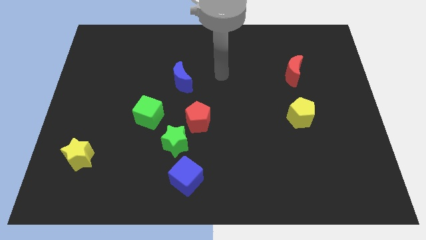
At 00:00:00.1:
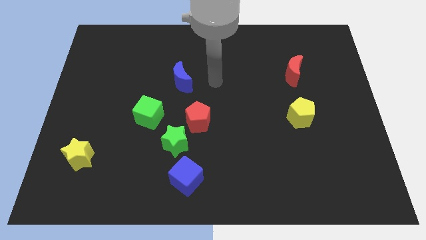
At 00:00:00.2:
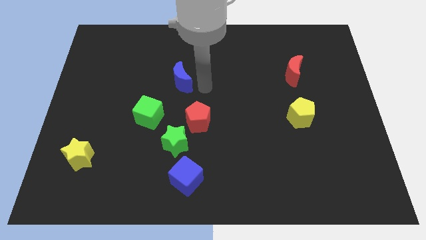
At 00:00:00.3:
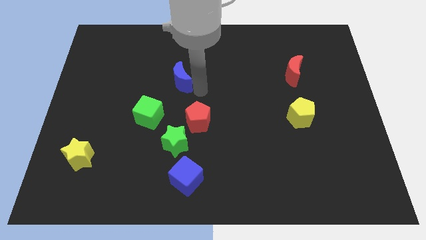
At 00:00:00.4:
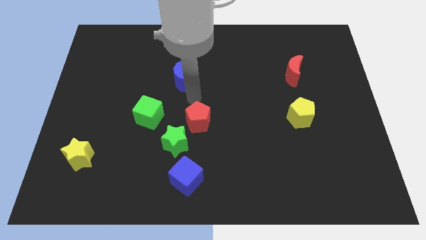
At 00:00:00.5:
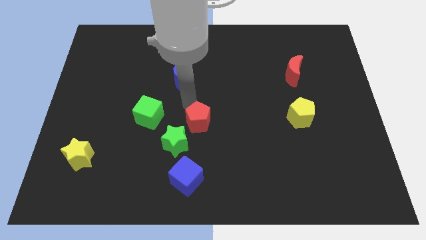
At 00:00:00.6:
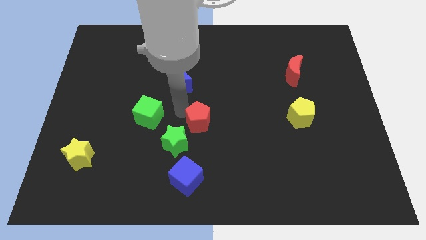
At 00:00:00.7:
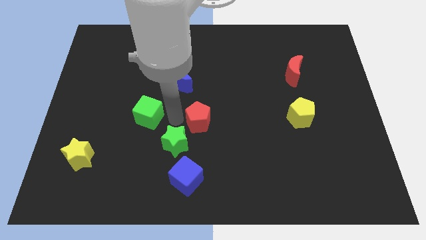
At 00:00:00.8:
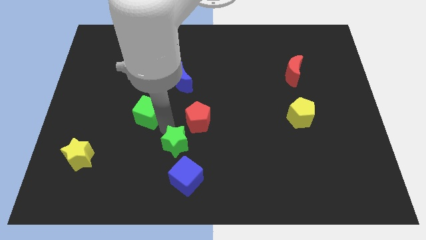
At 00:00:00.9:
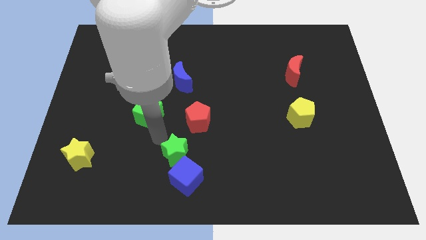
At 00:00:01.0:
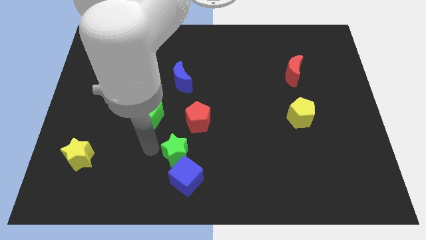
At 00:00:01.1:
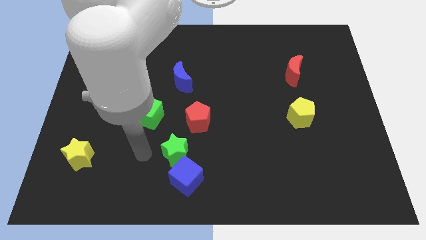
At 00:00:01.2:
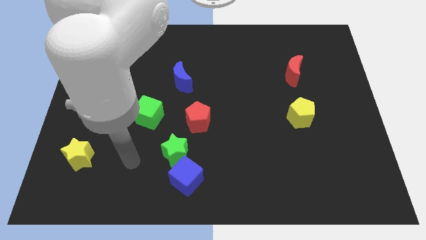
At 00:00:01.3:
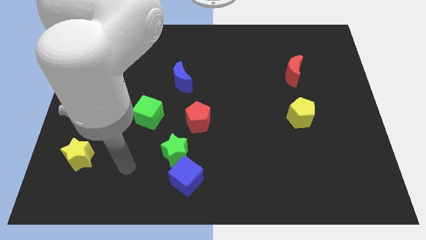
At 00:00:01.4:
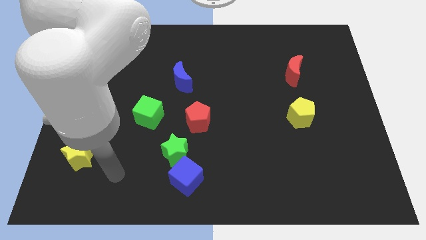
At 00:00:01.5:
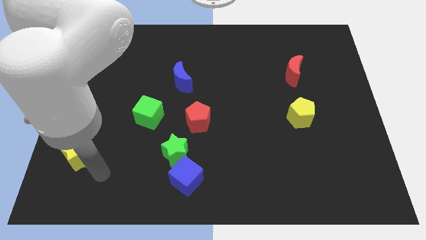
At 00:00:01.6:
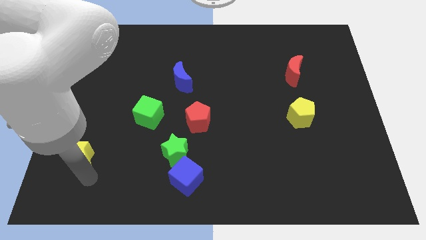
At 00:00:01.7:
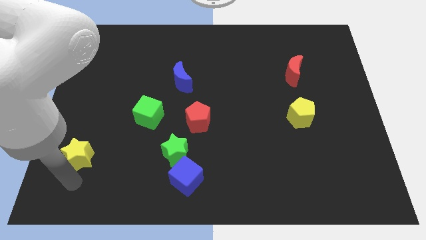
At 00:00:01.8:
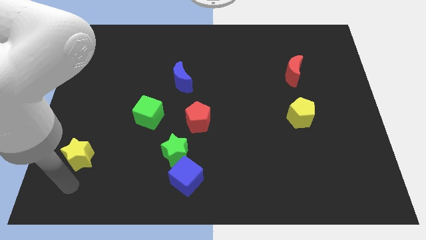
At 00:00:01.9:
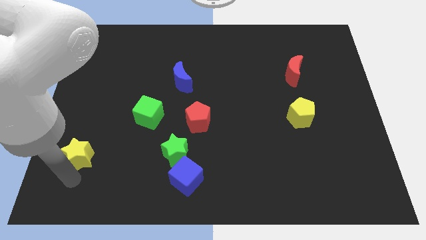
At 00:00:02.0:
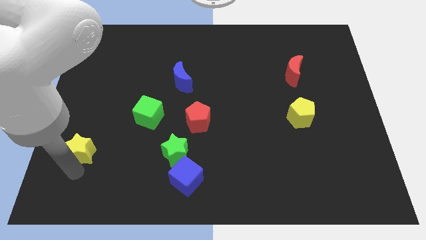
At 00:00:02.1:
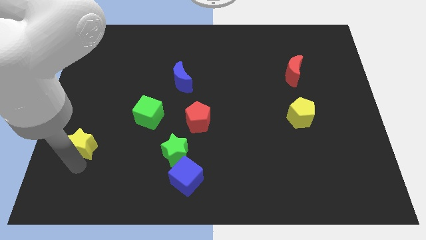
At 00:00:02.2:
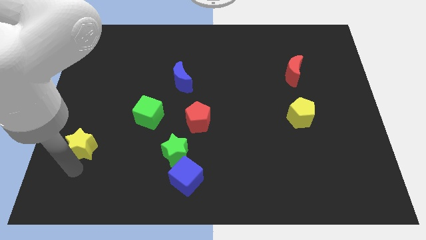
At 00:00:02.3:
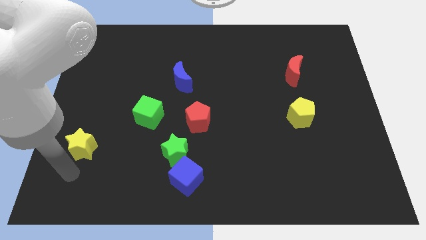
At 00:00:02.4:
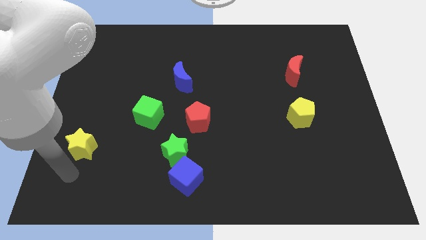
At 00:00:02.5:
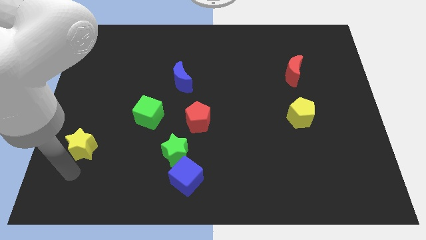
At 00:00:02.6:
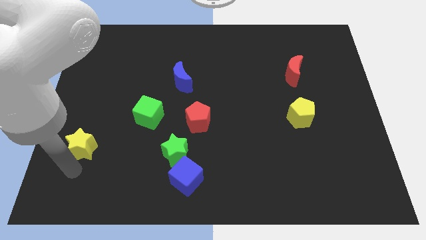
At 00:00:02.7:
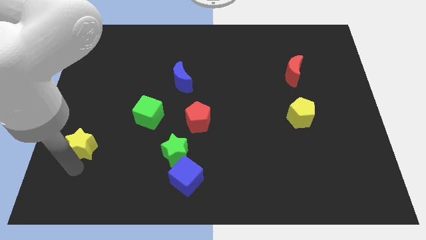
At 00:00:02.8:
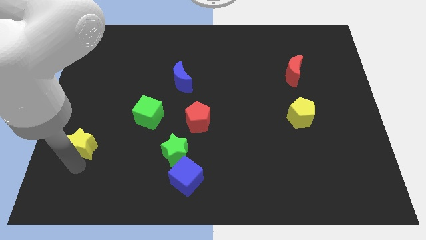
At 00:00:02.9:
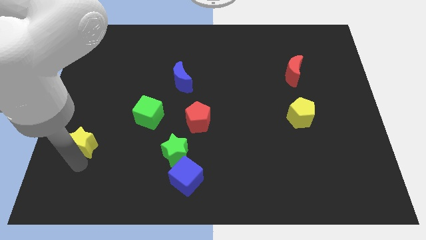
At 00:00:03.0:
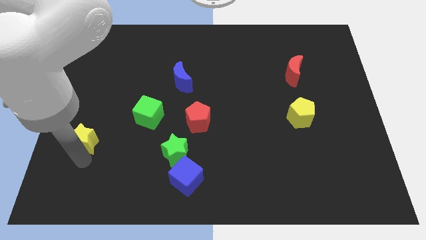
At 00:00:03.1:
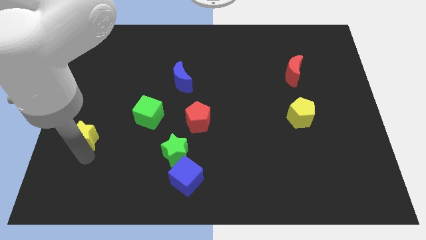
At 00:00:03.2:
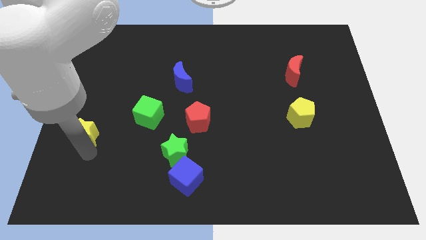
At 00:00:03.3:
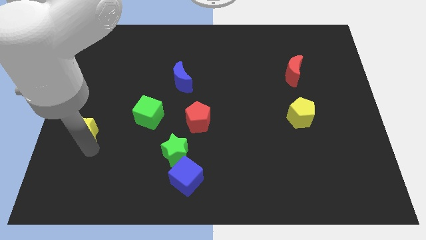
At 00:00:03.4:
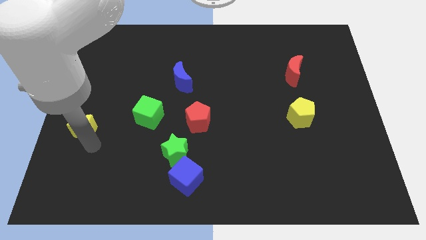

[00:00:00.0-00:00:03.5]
slide the yellow star somewhat upwards

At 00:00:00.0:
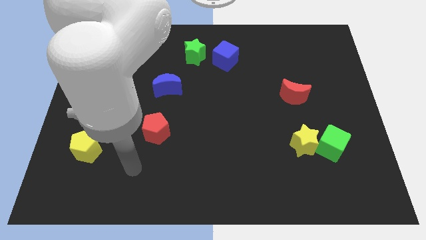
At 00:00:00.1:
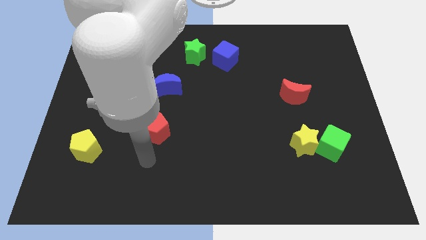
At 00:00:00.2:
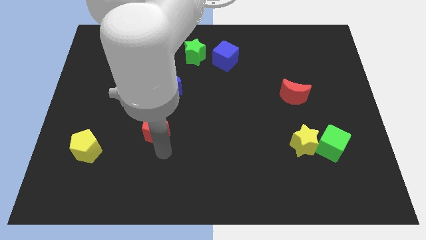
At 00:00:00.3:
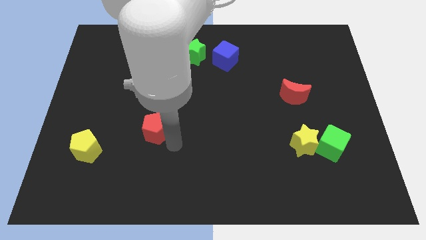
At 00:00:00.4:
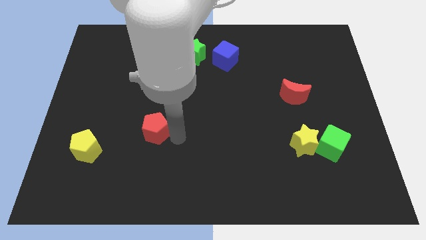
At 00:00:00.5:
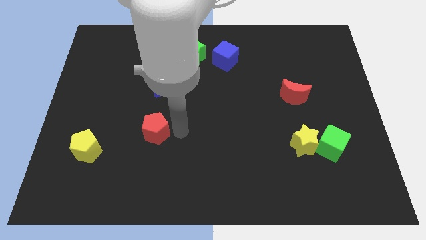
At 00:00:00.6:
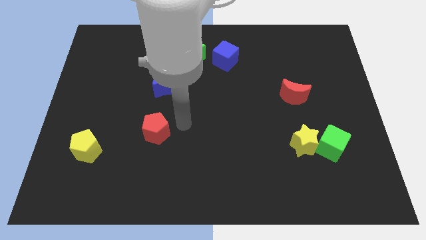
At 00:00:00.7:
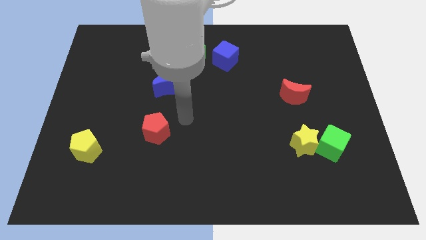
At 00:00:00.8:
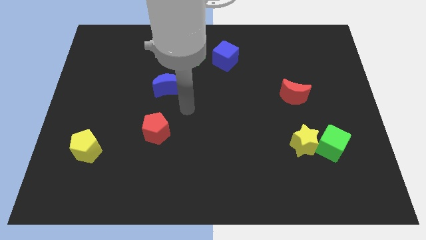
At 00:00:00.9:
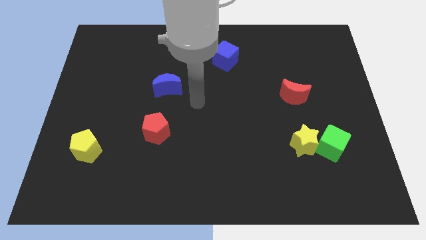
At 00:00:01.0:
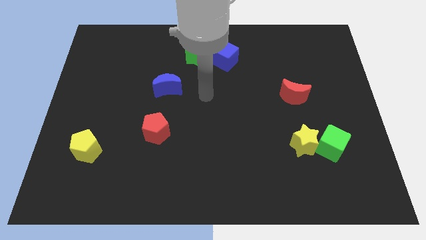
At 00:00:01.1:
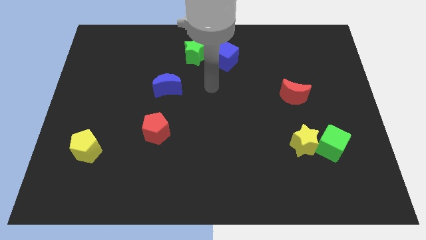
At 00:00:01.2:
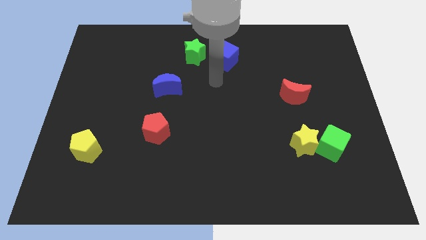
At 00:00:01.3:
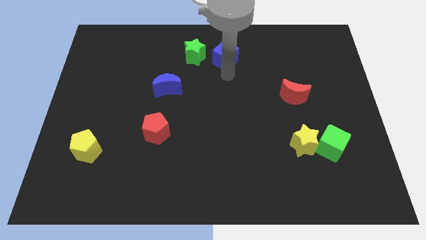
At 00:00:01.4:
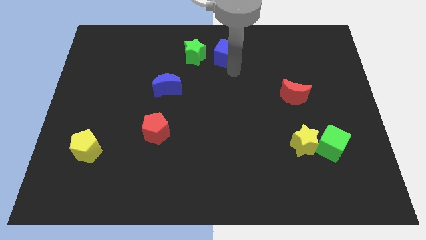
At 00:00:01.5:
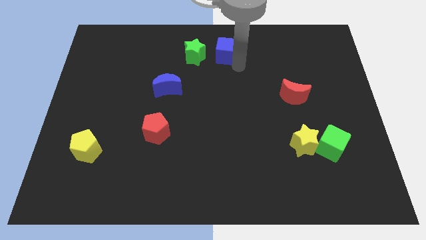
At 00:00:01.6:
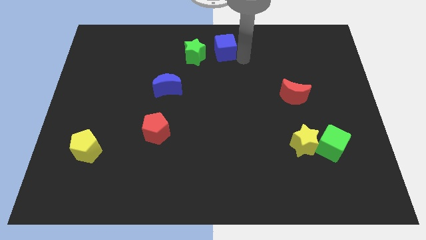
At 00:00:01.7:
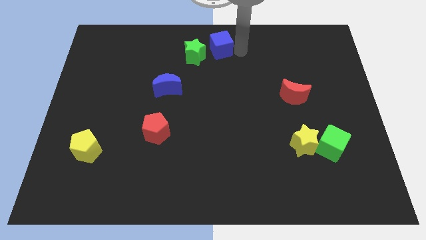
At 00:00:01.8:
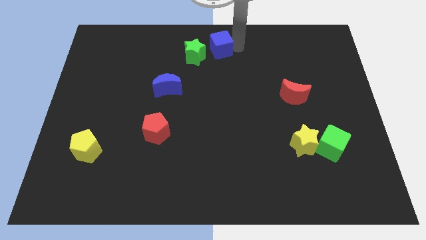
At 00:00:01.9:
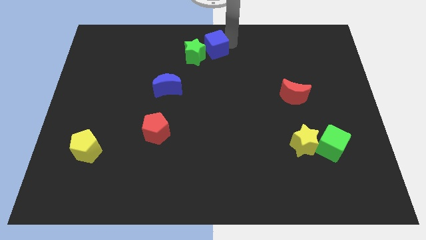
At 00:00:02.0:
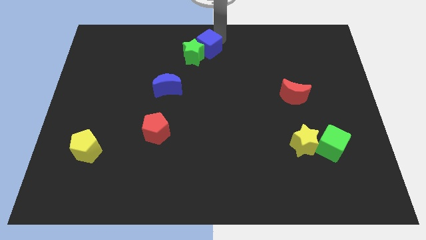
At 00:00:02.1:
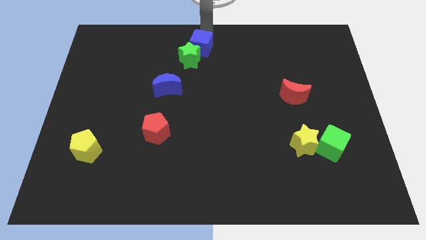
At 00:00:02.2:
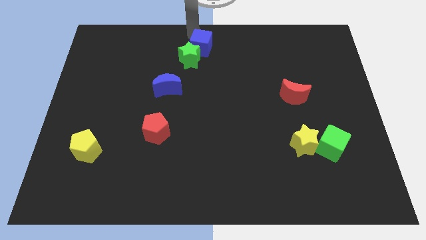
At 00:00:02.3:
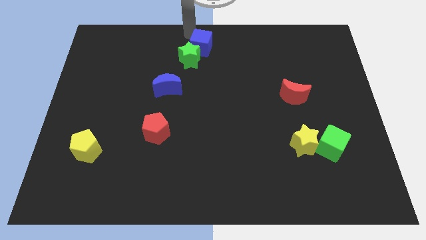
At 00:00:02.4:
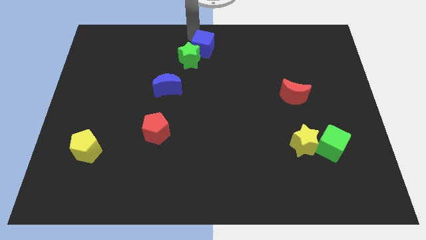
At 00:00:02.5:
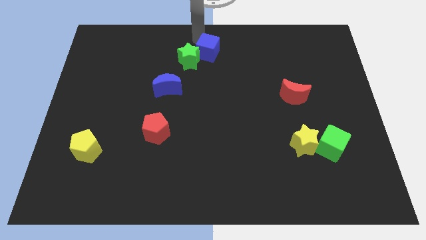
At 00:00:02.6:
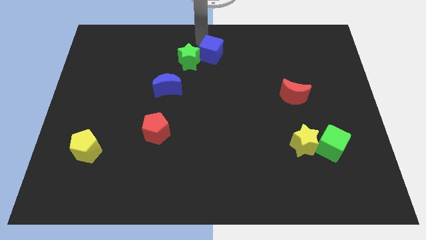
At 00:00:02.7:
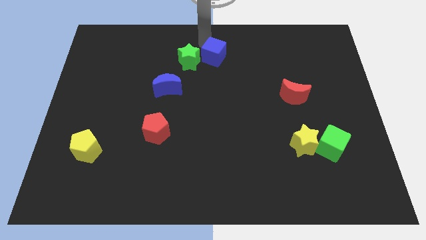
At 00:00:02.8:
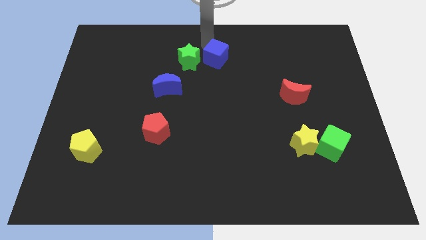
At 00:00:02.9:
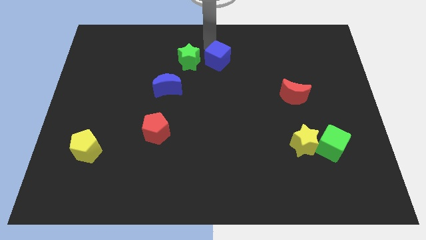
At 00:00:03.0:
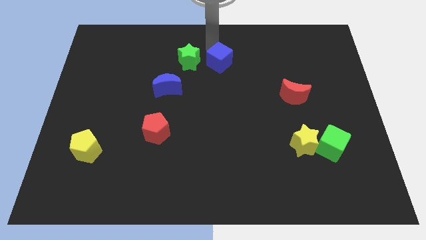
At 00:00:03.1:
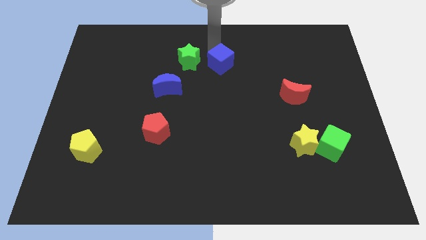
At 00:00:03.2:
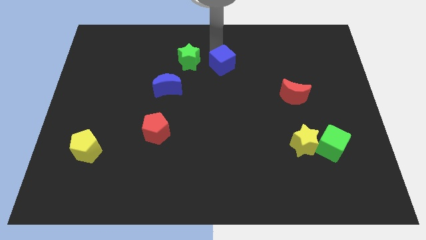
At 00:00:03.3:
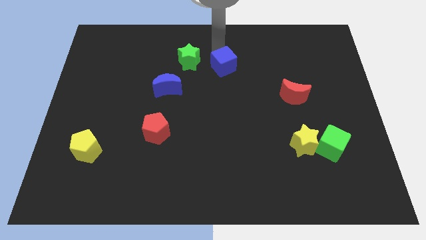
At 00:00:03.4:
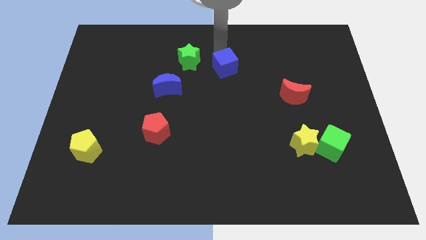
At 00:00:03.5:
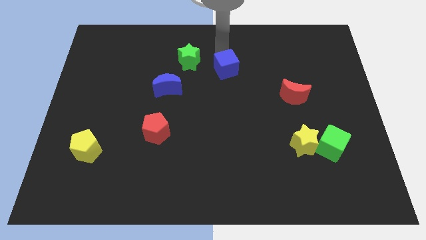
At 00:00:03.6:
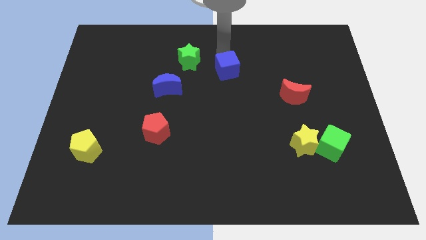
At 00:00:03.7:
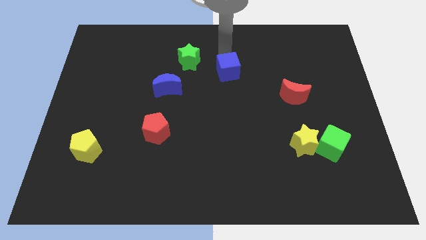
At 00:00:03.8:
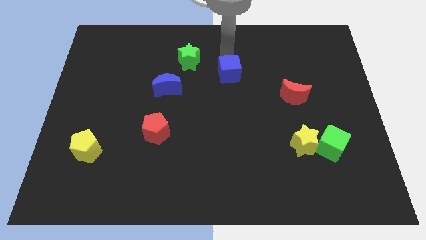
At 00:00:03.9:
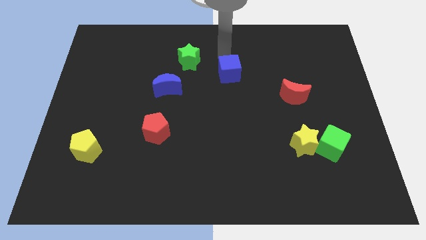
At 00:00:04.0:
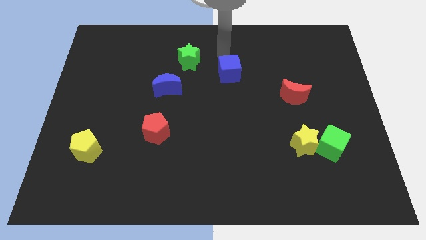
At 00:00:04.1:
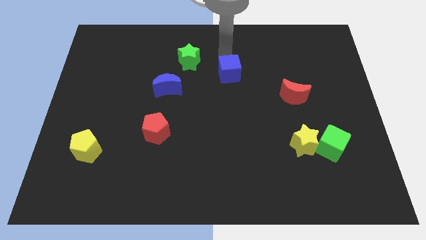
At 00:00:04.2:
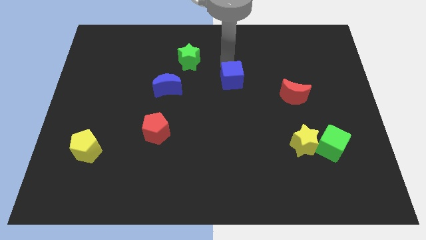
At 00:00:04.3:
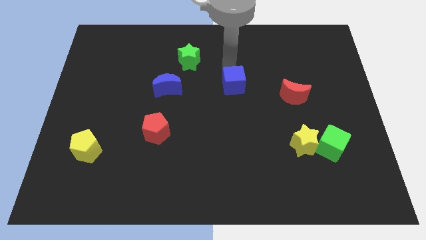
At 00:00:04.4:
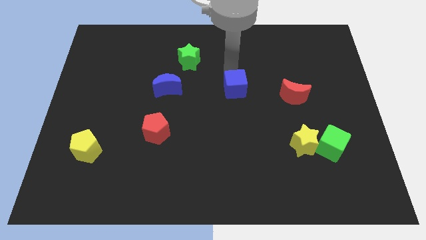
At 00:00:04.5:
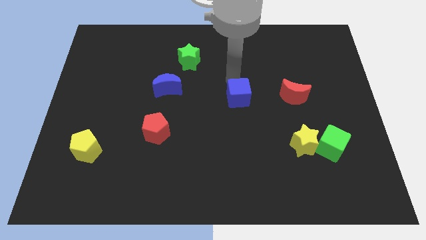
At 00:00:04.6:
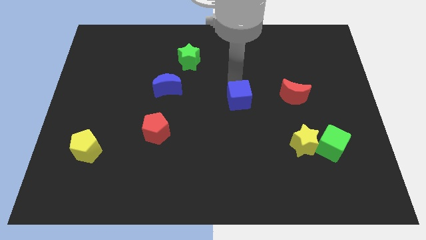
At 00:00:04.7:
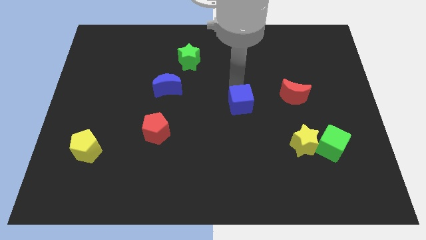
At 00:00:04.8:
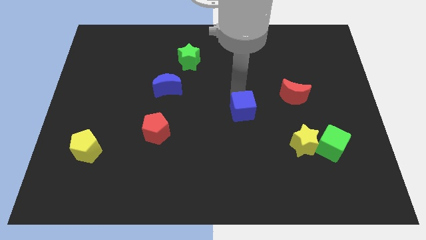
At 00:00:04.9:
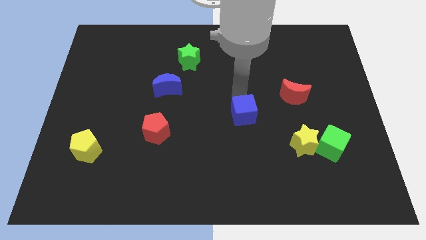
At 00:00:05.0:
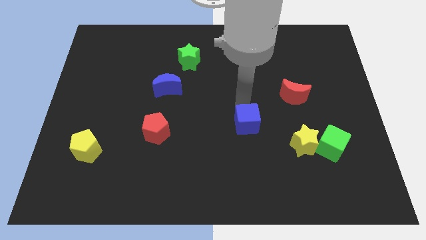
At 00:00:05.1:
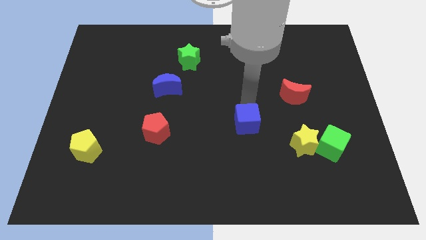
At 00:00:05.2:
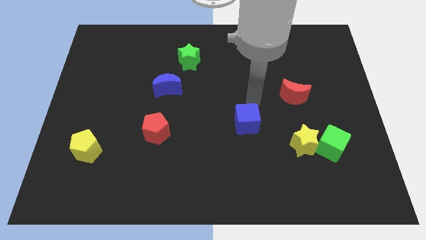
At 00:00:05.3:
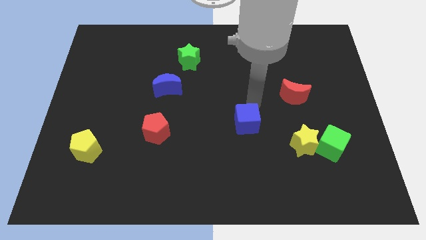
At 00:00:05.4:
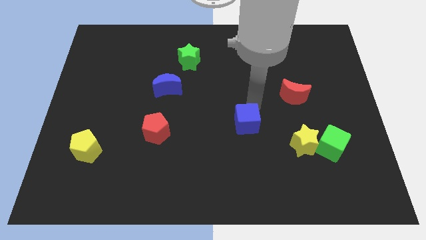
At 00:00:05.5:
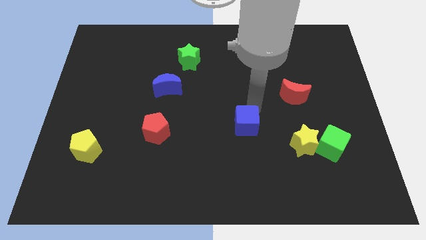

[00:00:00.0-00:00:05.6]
slide the blue cube down
